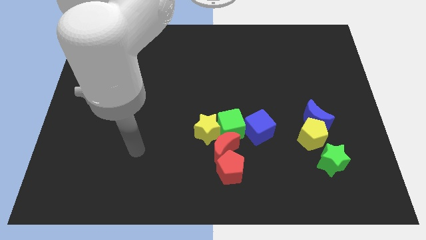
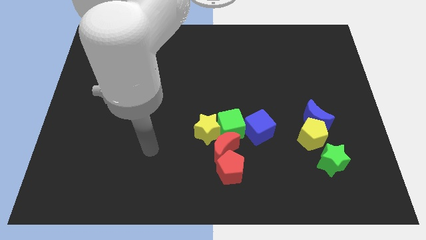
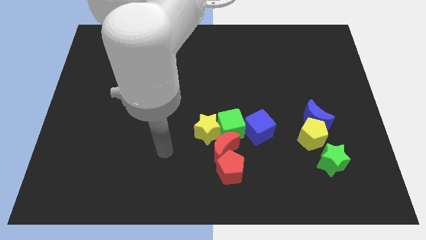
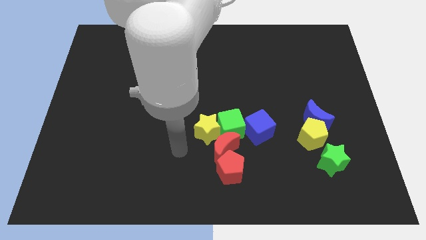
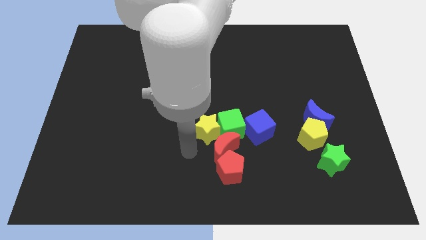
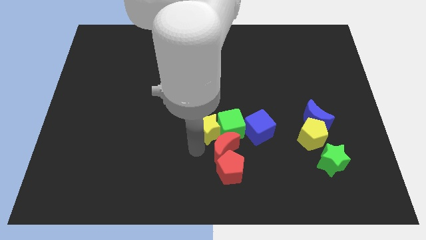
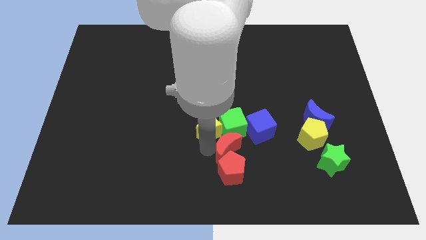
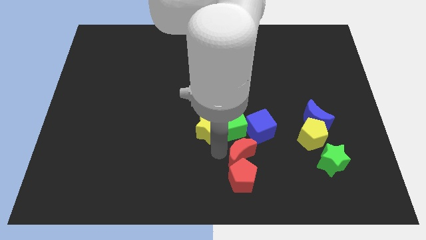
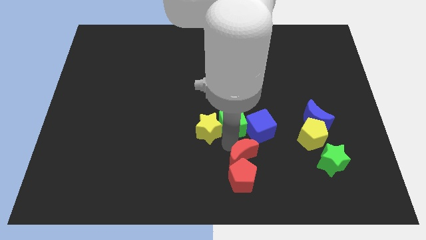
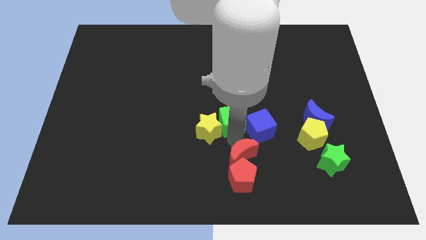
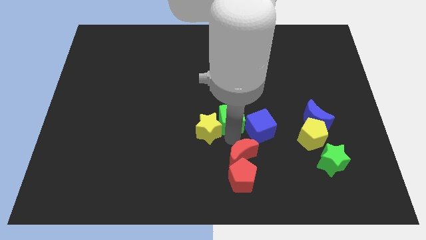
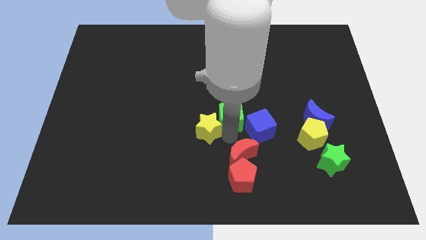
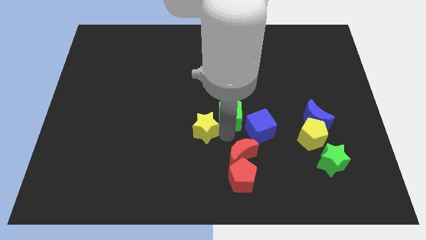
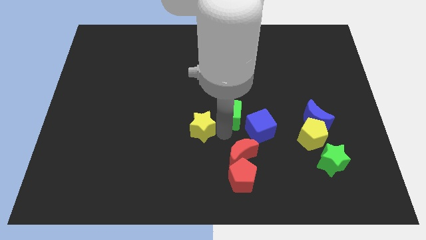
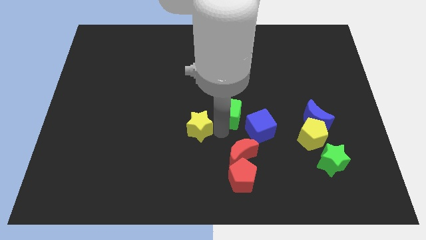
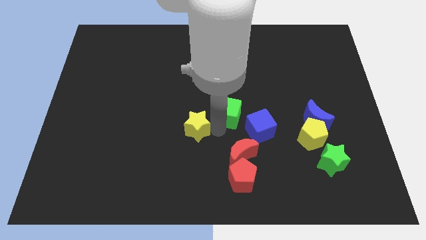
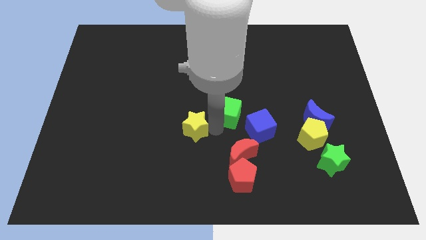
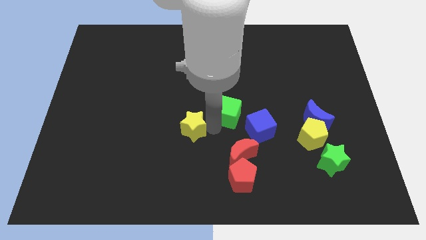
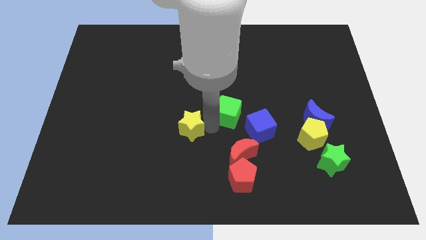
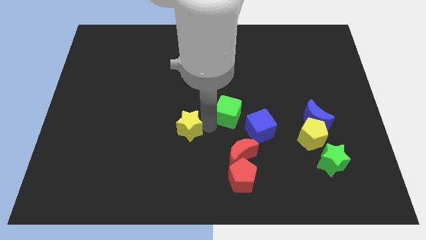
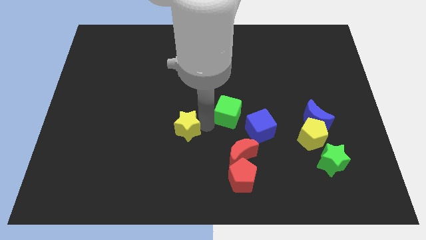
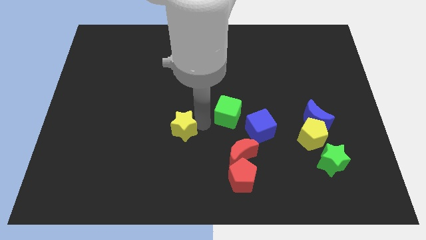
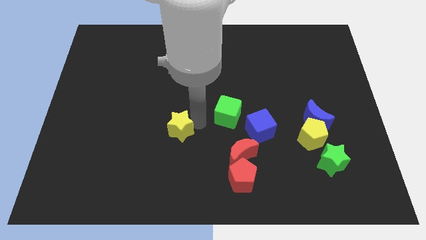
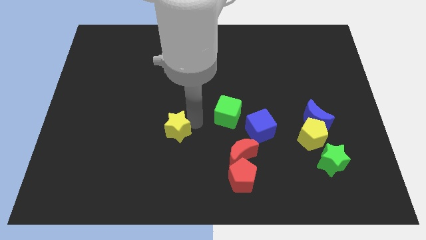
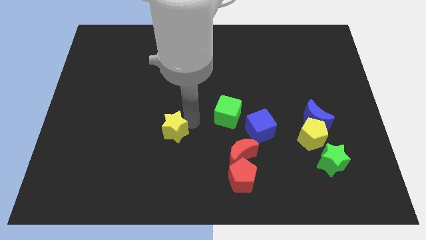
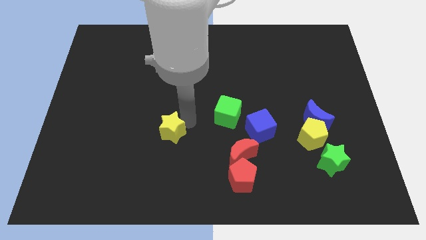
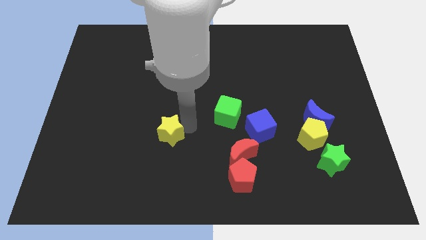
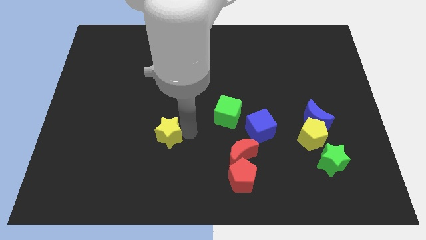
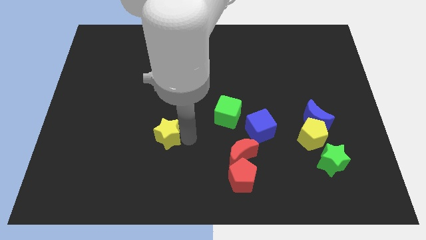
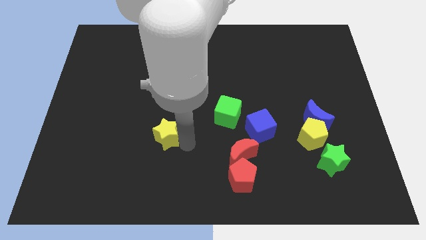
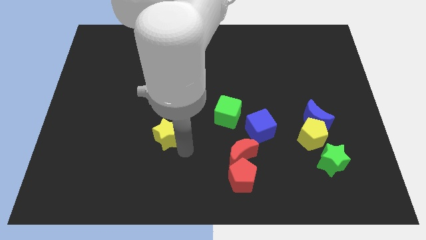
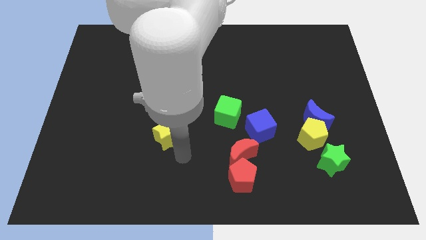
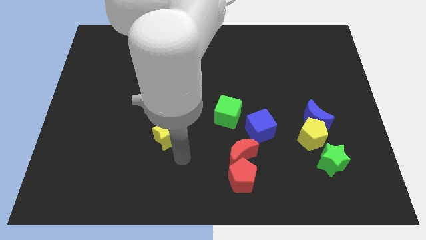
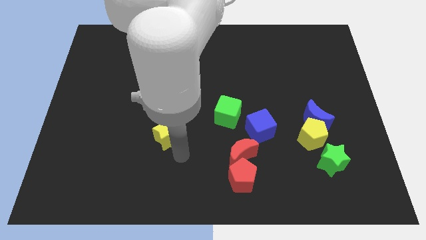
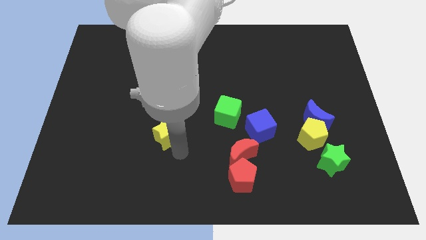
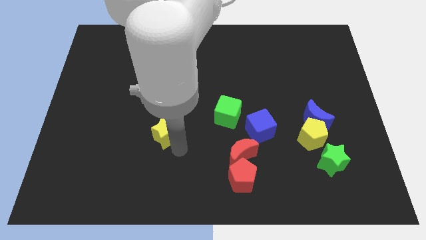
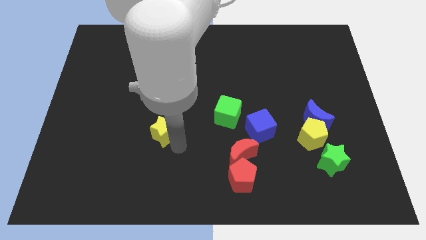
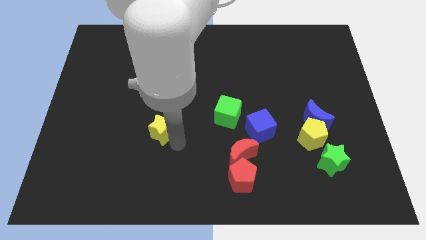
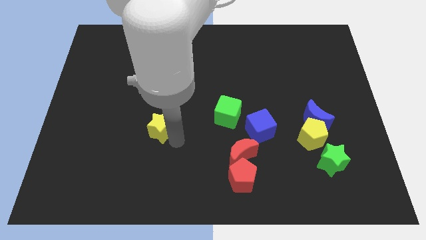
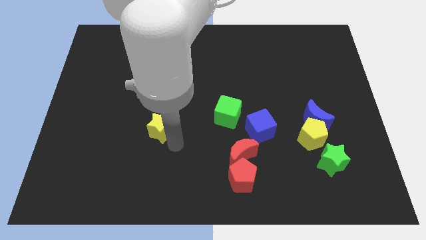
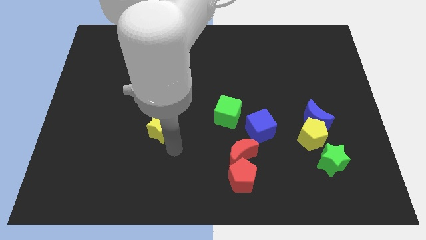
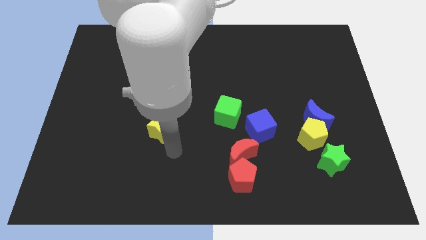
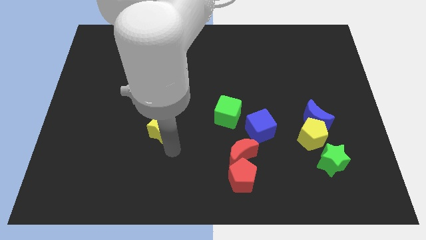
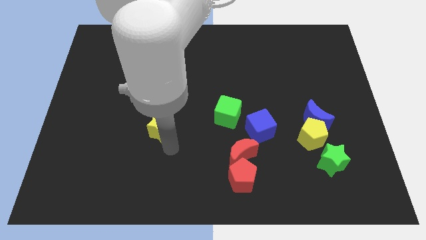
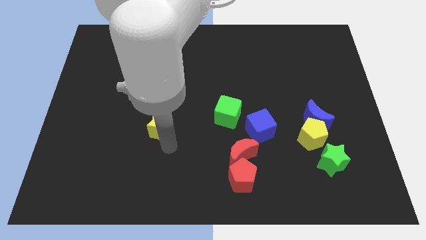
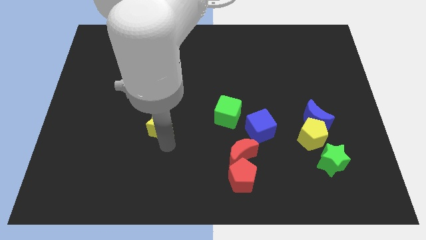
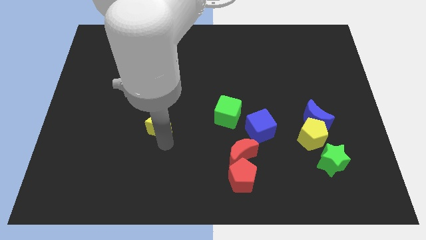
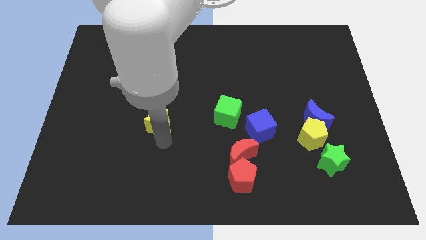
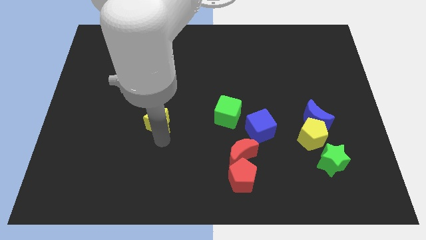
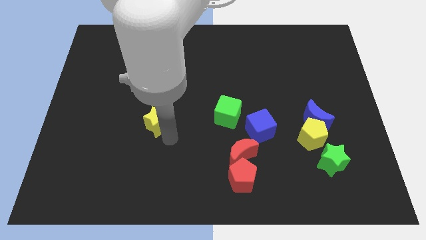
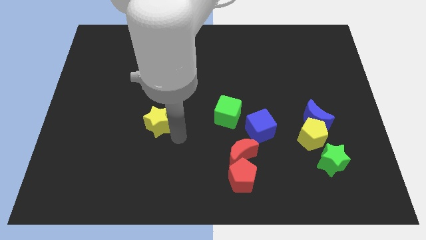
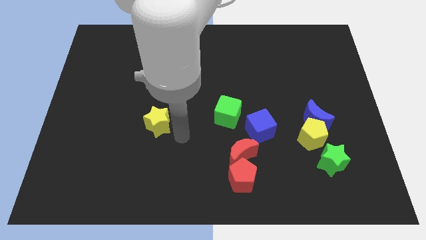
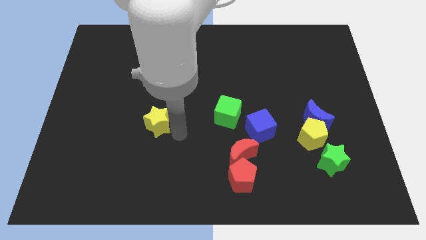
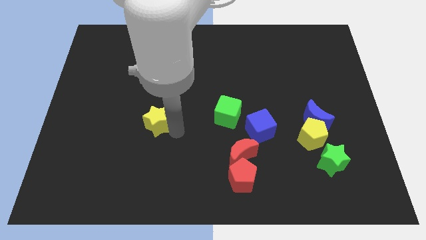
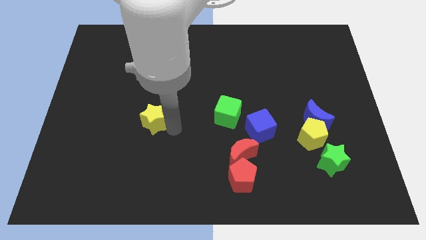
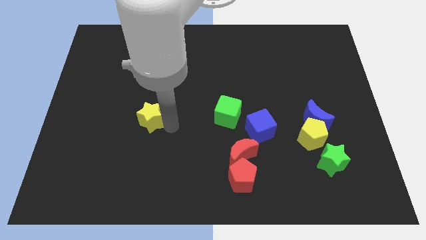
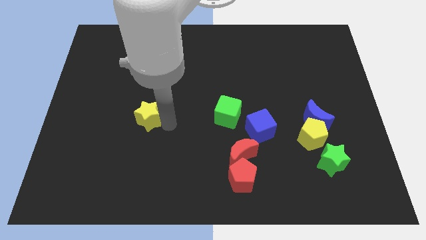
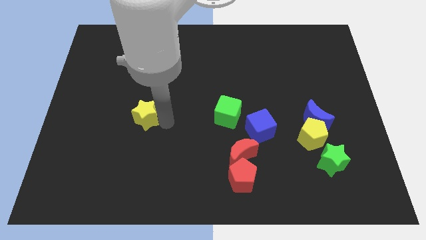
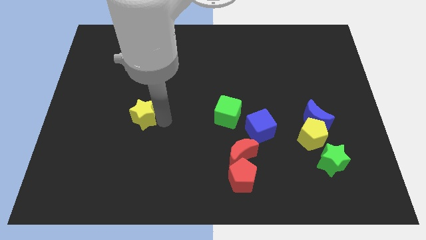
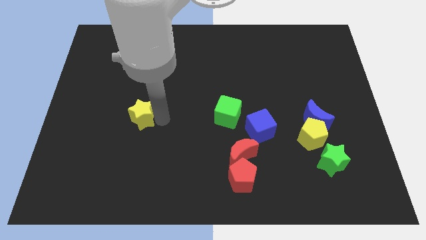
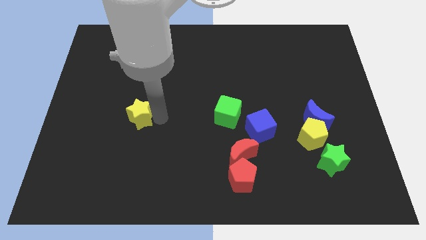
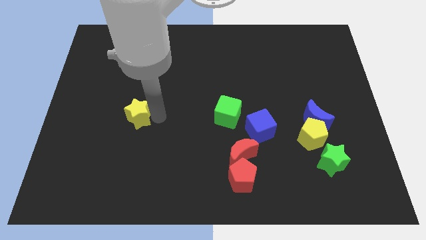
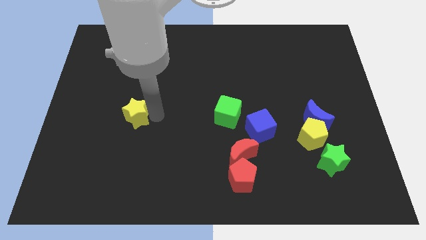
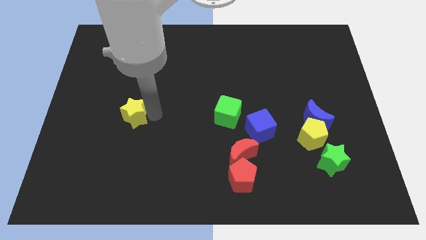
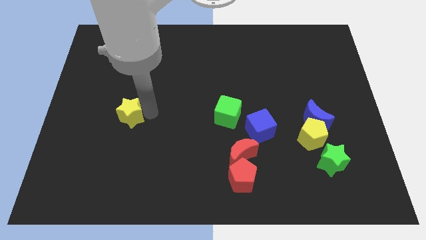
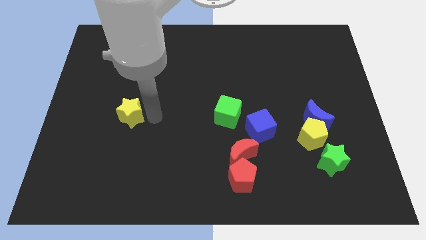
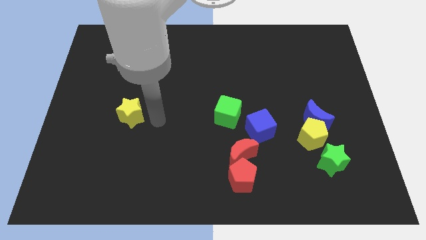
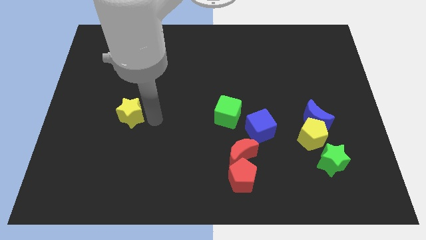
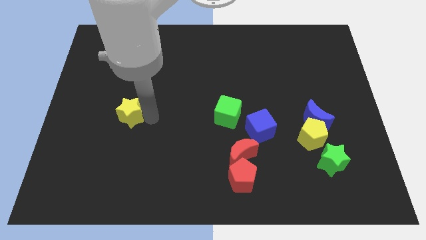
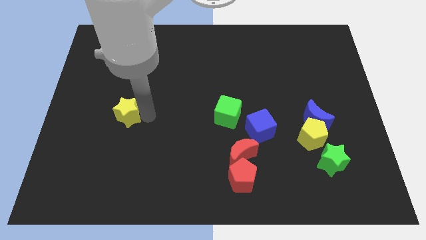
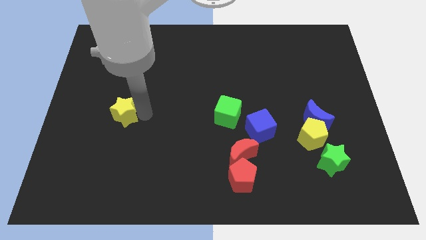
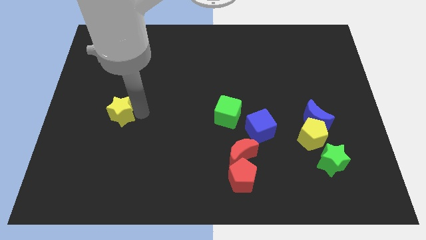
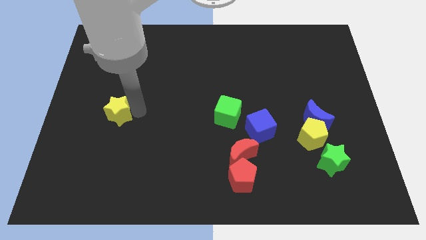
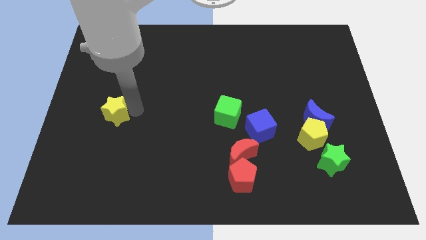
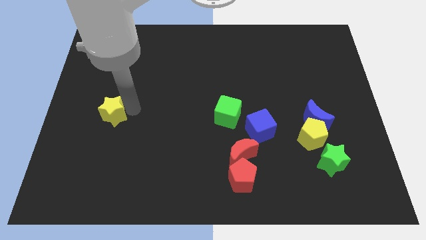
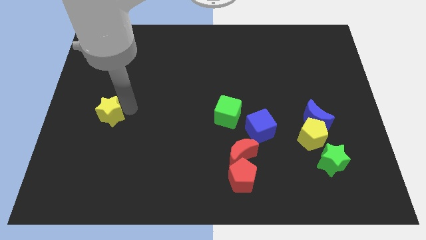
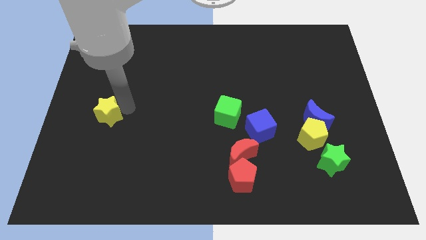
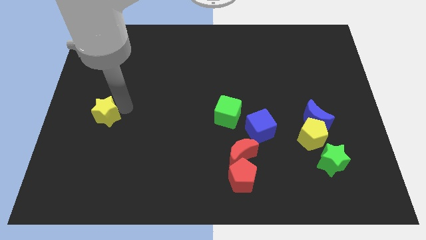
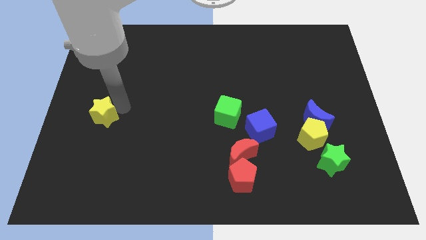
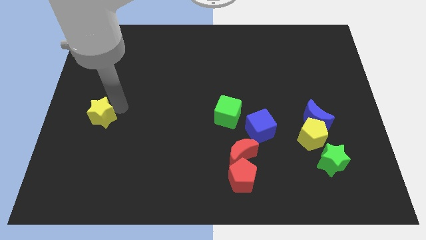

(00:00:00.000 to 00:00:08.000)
put the yellow star to the center left
